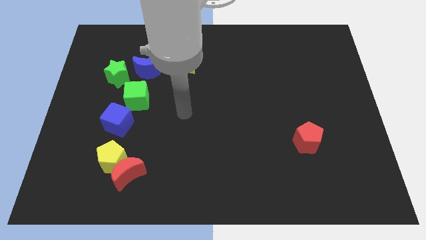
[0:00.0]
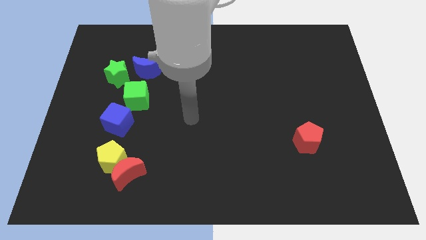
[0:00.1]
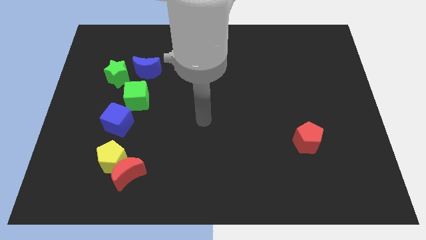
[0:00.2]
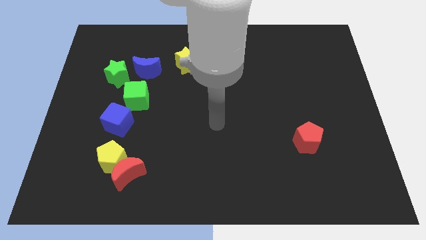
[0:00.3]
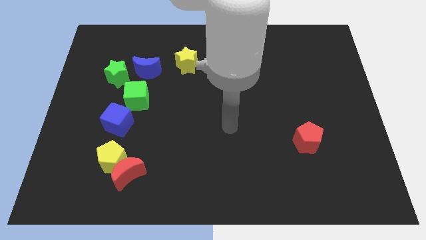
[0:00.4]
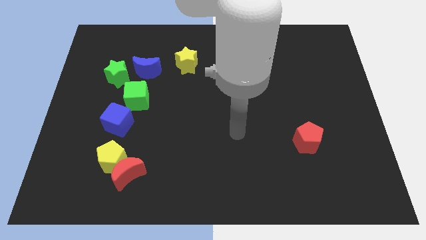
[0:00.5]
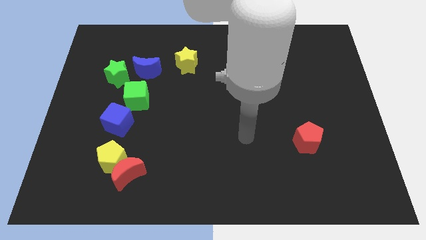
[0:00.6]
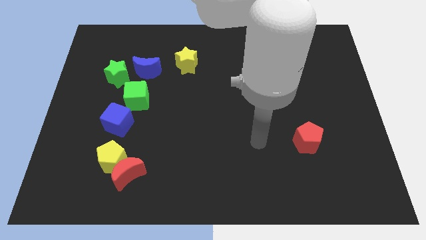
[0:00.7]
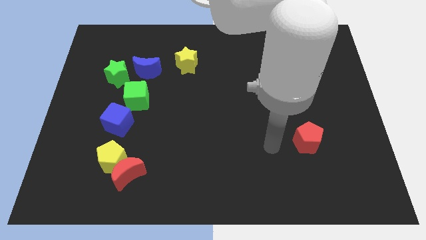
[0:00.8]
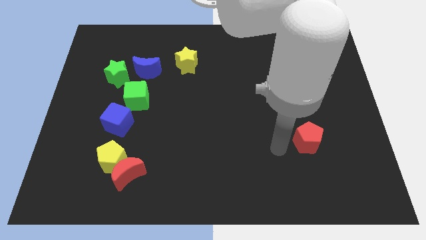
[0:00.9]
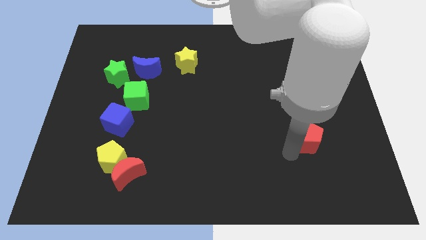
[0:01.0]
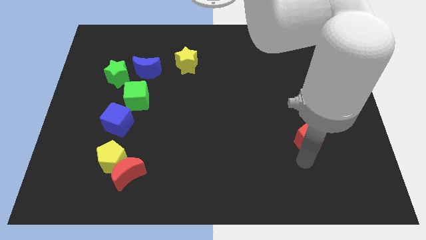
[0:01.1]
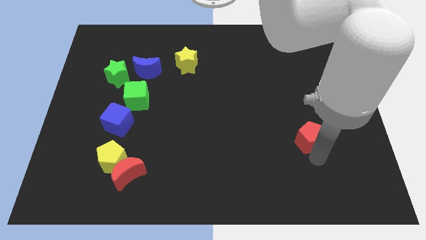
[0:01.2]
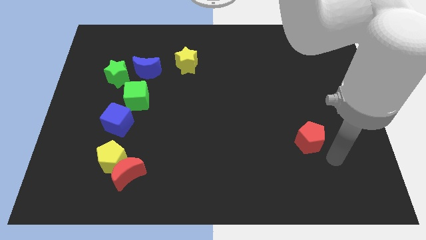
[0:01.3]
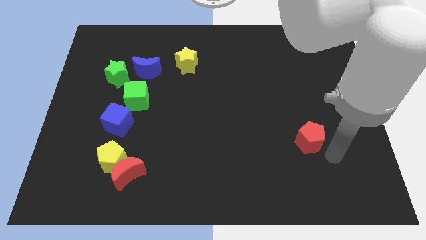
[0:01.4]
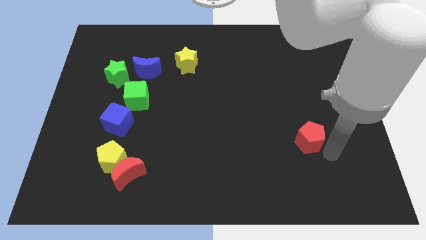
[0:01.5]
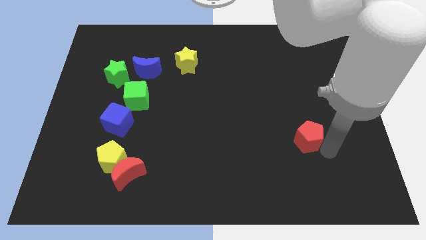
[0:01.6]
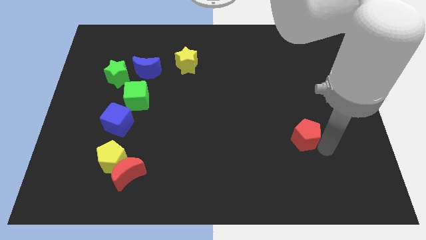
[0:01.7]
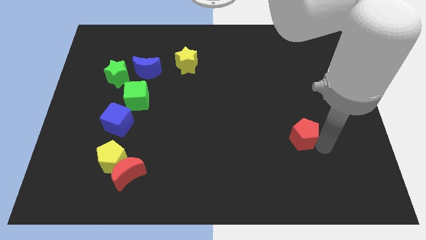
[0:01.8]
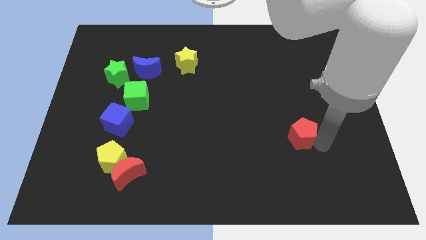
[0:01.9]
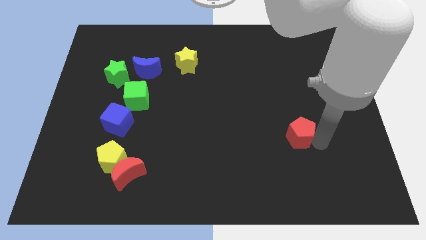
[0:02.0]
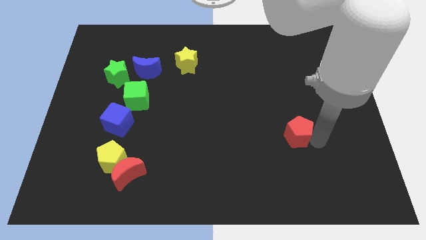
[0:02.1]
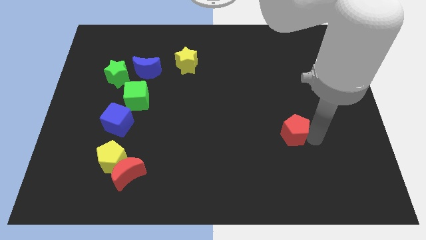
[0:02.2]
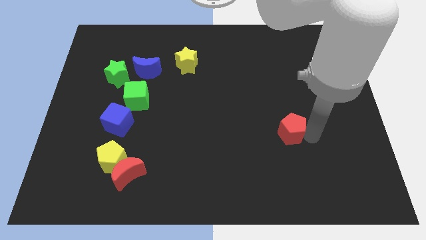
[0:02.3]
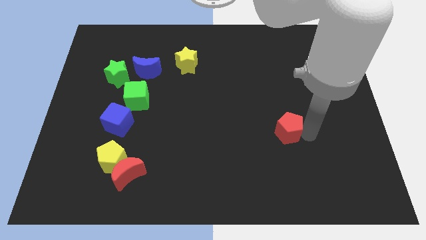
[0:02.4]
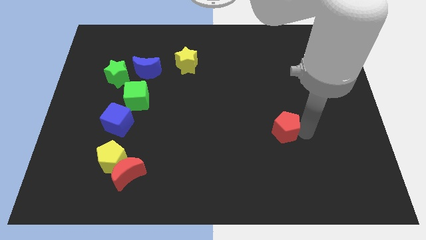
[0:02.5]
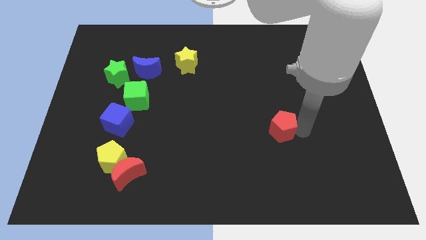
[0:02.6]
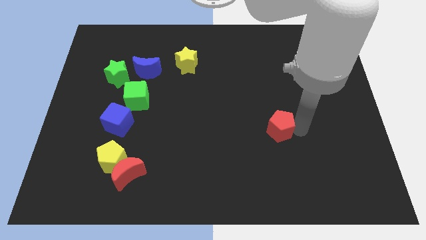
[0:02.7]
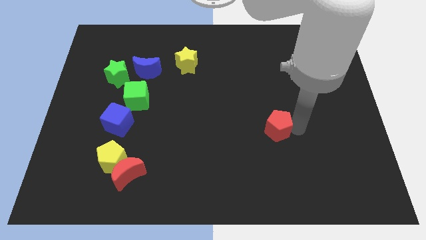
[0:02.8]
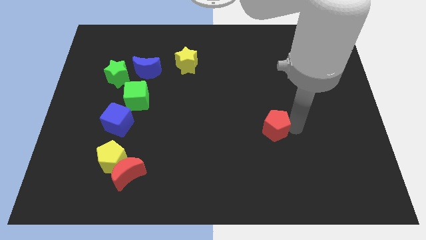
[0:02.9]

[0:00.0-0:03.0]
slightly push the red pentagon up and left diagonally

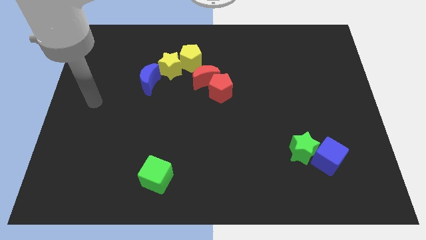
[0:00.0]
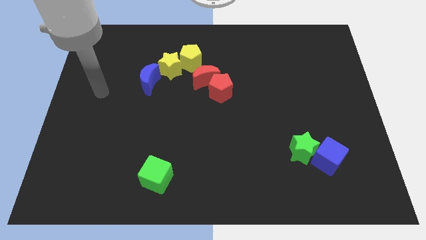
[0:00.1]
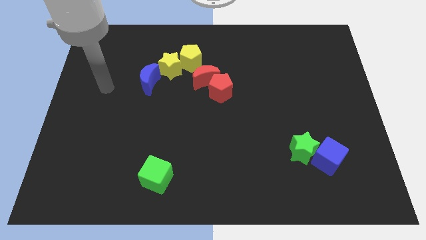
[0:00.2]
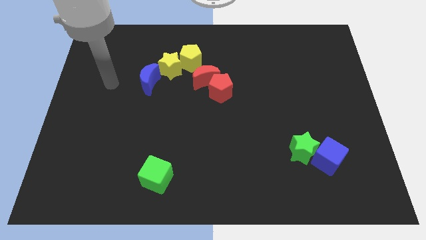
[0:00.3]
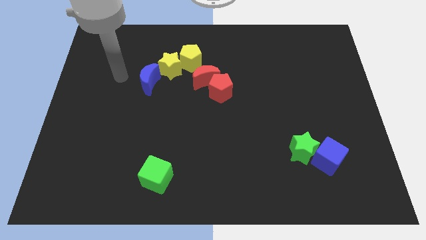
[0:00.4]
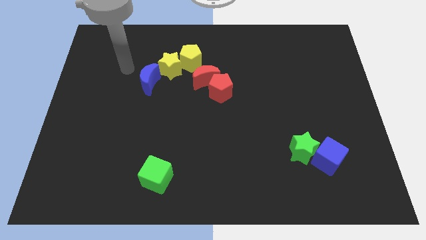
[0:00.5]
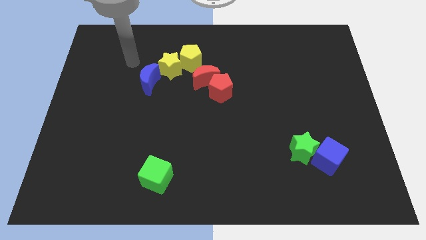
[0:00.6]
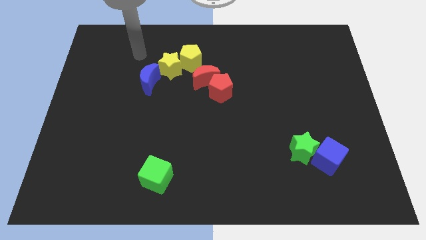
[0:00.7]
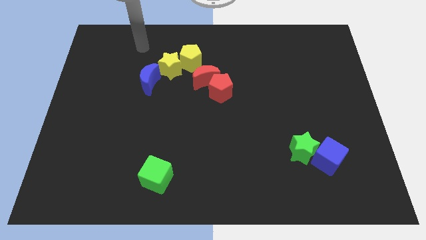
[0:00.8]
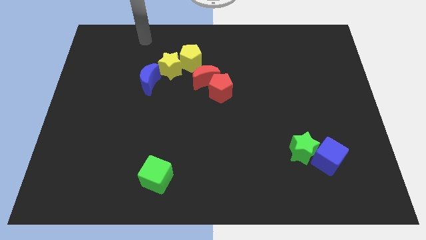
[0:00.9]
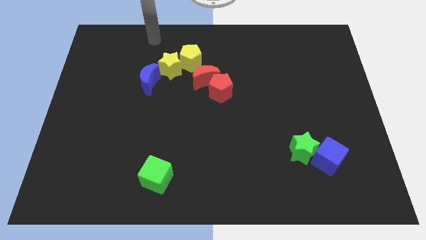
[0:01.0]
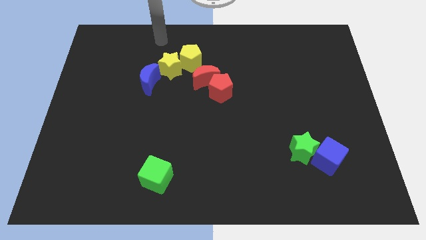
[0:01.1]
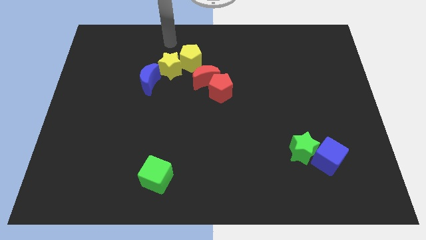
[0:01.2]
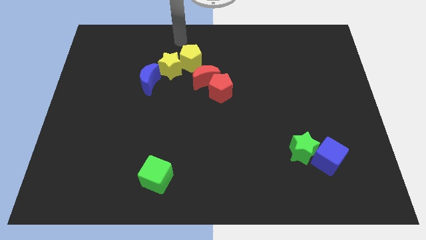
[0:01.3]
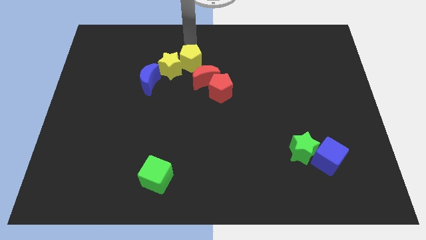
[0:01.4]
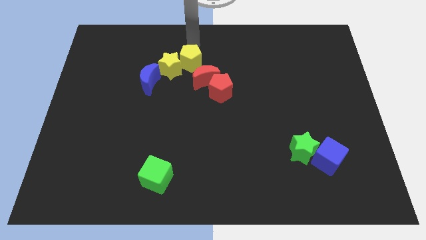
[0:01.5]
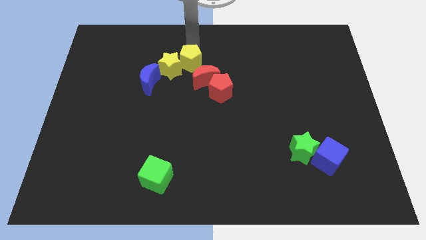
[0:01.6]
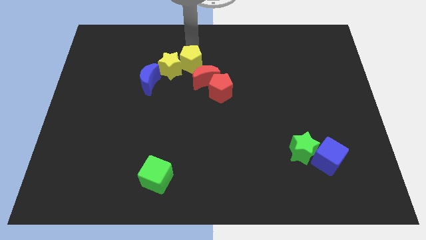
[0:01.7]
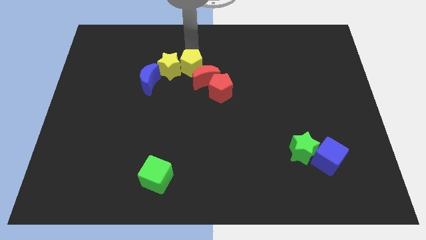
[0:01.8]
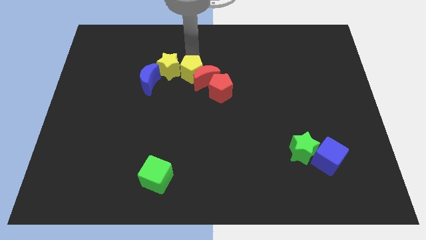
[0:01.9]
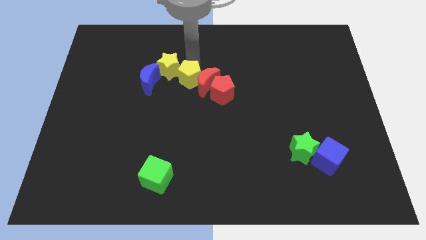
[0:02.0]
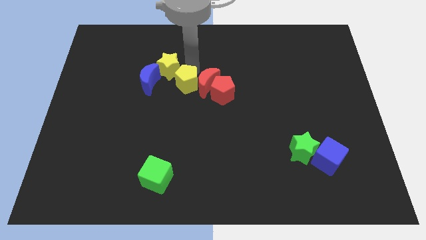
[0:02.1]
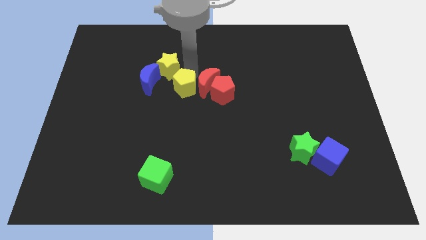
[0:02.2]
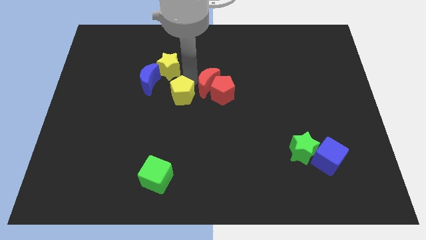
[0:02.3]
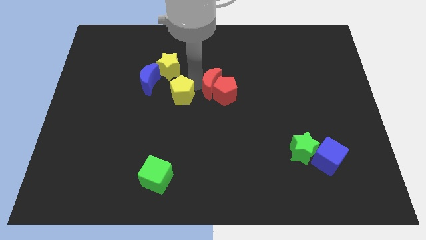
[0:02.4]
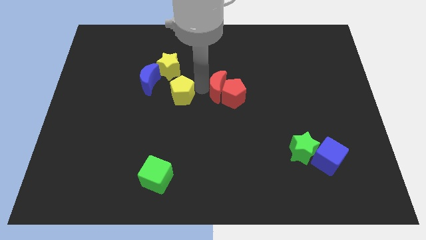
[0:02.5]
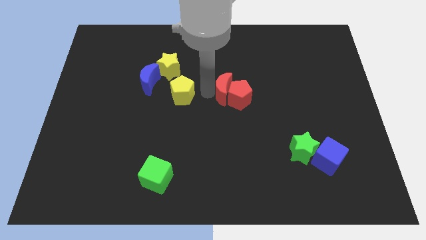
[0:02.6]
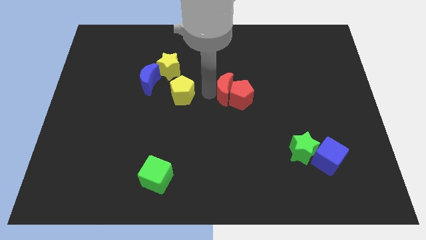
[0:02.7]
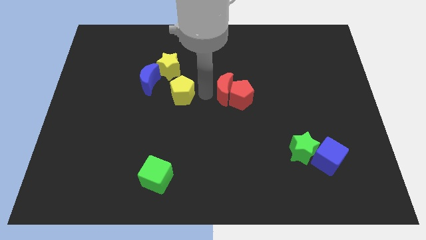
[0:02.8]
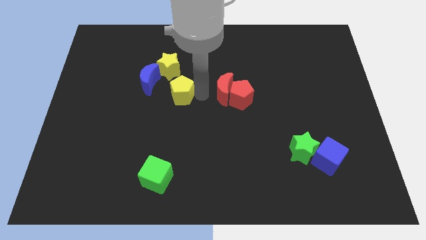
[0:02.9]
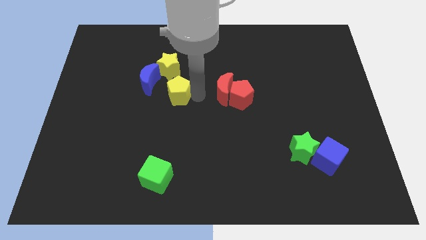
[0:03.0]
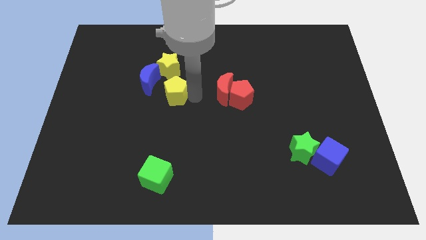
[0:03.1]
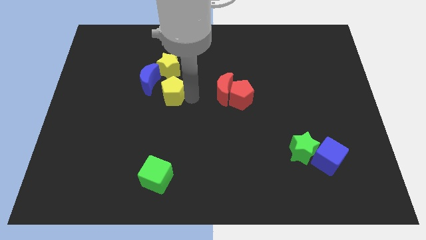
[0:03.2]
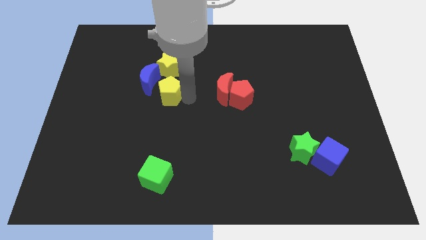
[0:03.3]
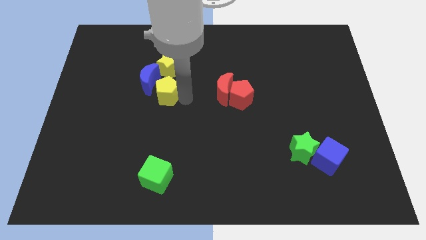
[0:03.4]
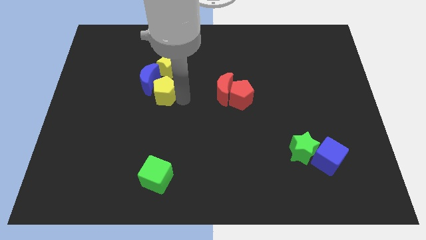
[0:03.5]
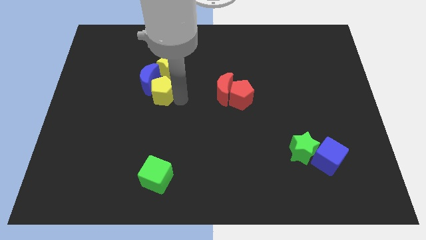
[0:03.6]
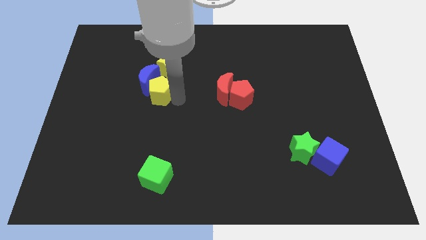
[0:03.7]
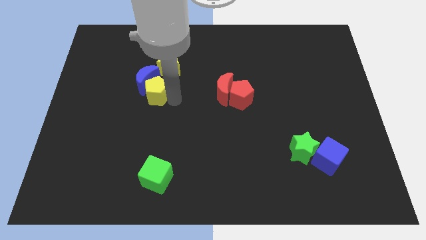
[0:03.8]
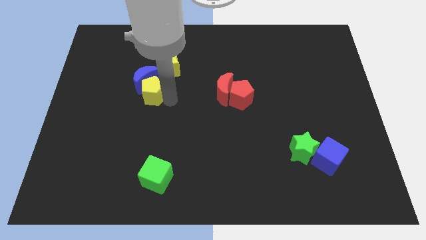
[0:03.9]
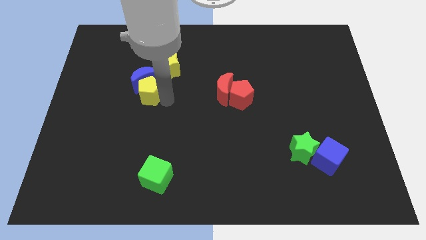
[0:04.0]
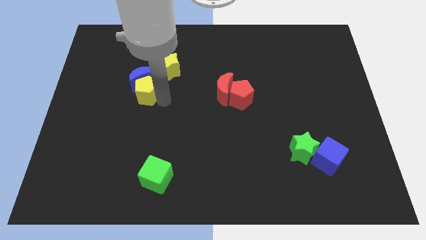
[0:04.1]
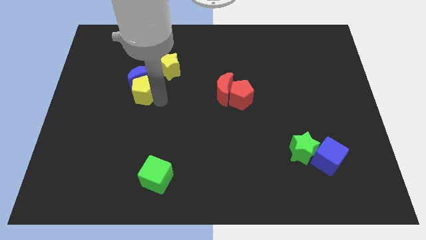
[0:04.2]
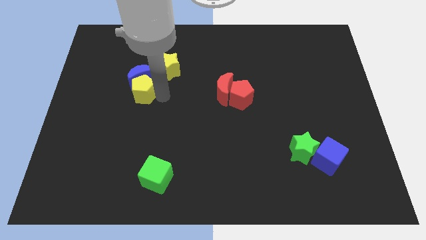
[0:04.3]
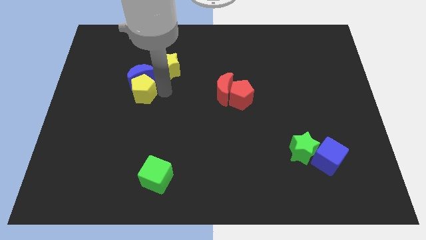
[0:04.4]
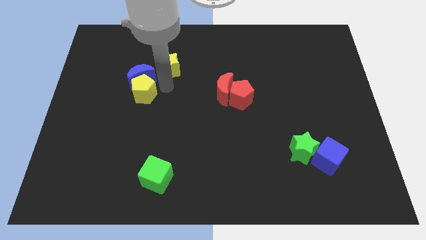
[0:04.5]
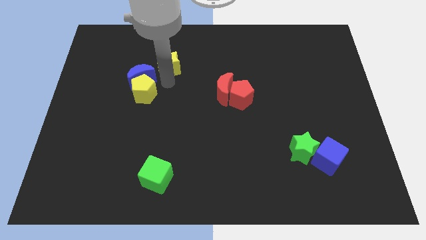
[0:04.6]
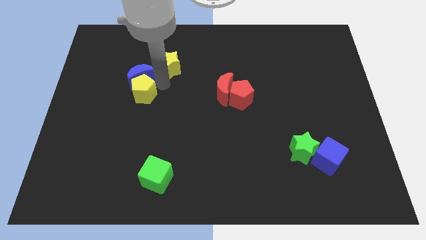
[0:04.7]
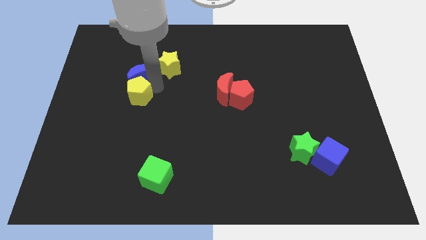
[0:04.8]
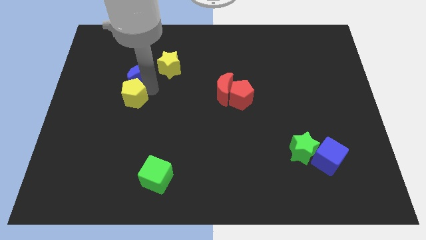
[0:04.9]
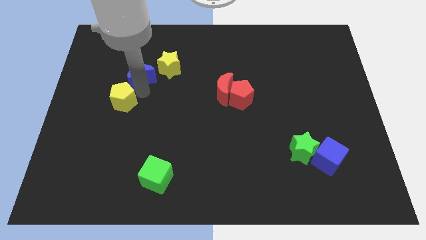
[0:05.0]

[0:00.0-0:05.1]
move the yellow pentagon downwards and to the left

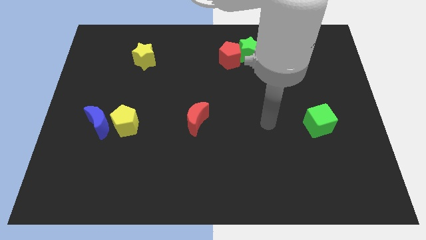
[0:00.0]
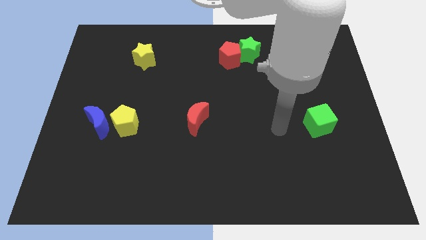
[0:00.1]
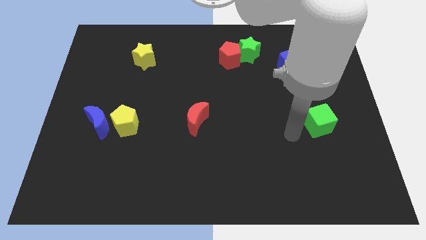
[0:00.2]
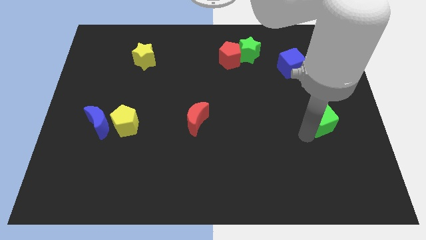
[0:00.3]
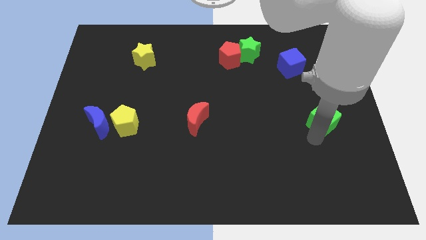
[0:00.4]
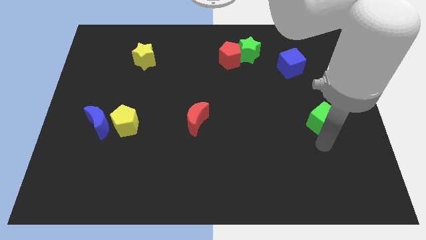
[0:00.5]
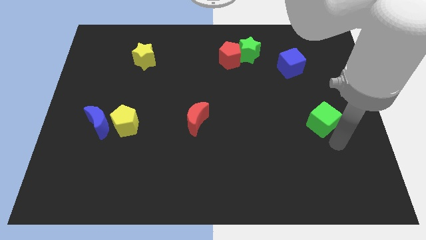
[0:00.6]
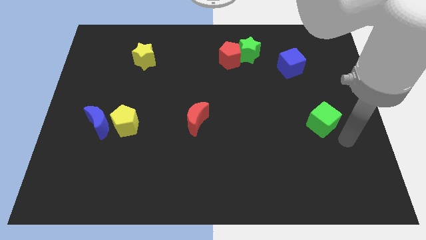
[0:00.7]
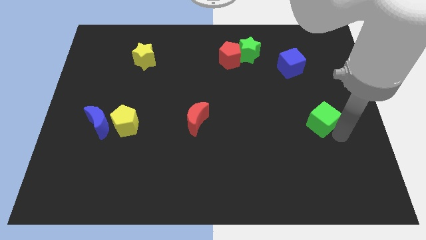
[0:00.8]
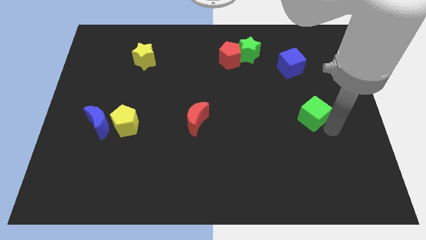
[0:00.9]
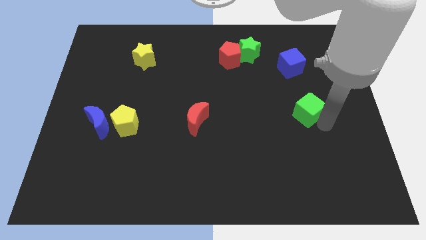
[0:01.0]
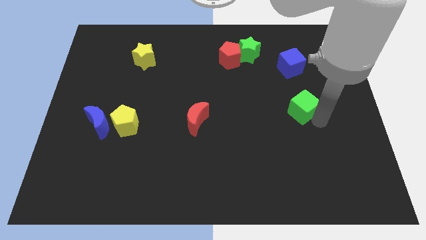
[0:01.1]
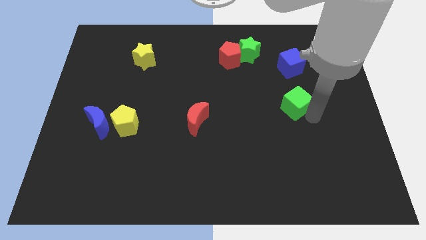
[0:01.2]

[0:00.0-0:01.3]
slide the green cube somewhat upwards and then to the left
